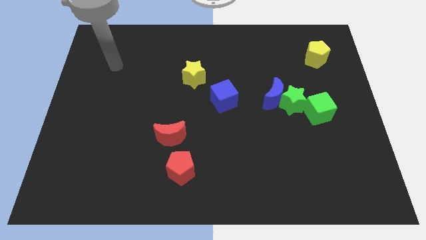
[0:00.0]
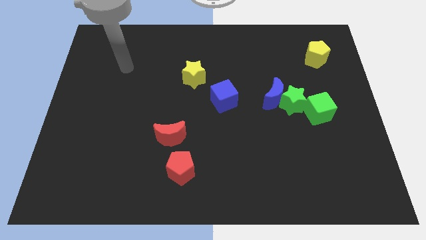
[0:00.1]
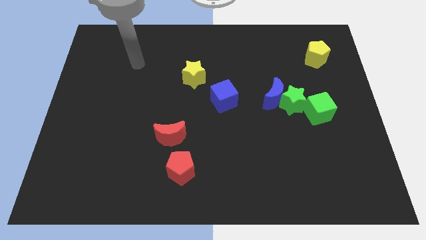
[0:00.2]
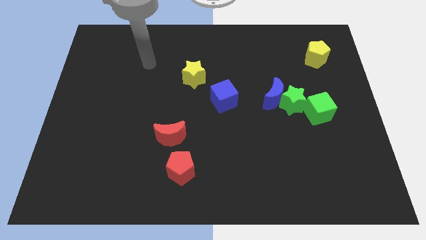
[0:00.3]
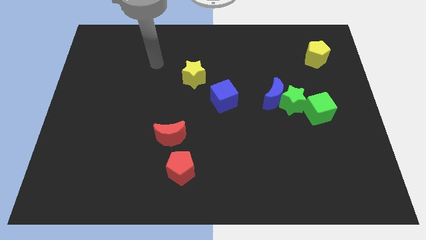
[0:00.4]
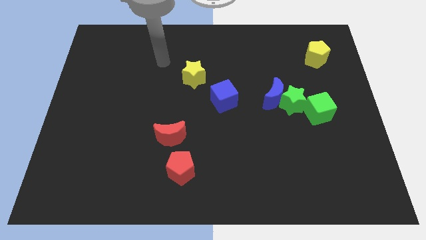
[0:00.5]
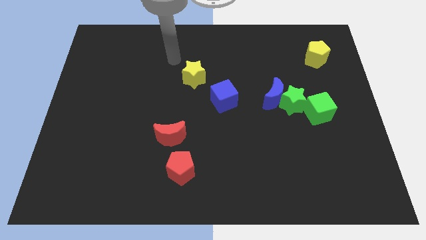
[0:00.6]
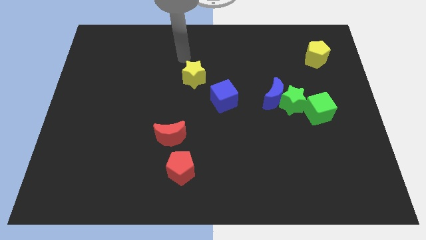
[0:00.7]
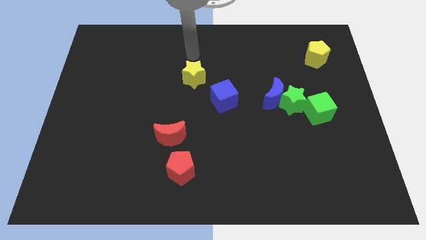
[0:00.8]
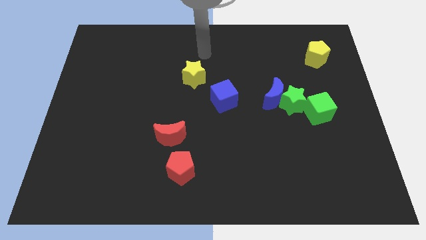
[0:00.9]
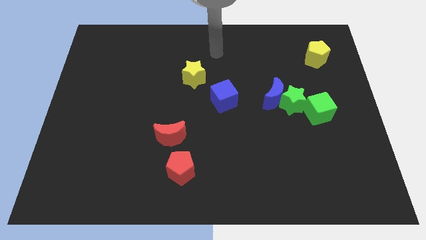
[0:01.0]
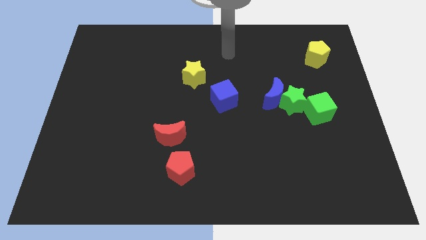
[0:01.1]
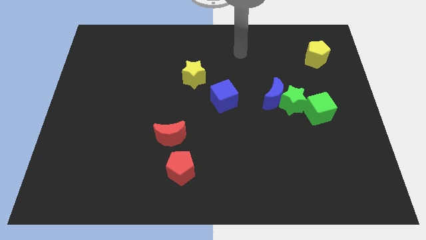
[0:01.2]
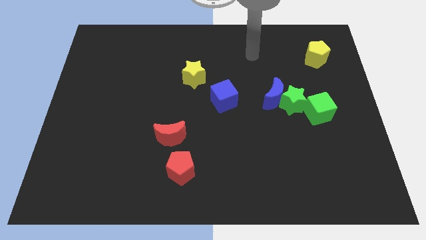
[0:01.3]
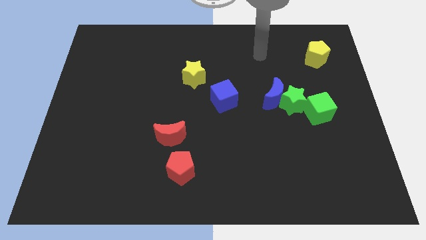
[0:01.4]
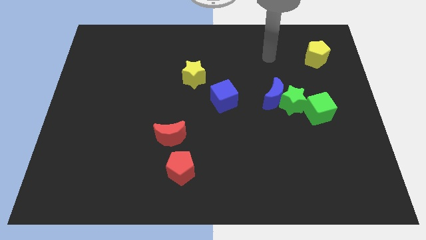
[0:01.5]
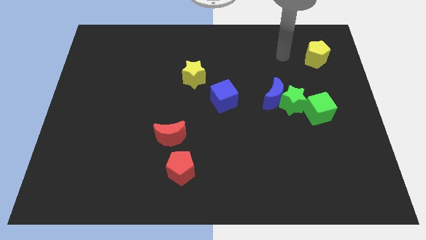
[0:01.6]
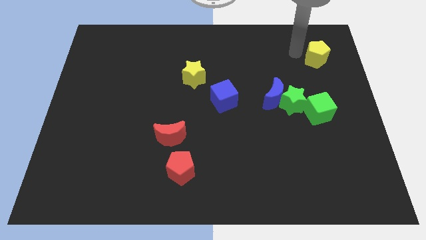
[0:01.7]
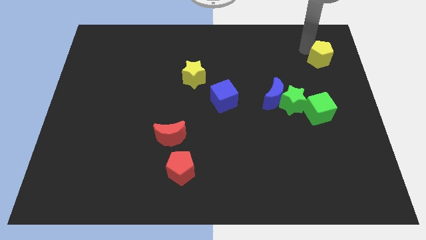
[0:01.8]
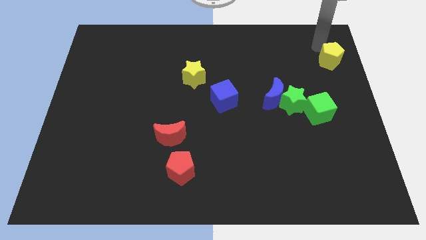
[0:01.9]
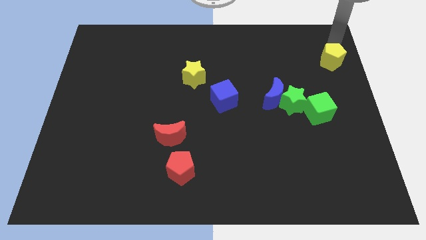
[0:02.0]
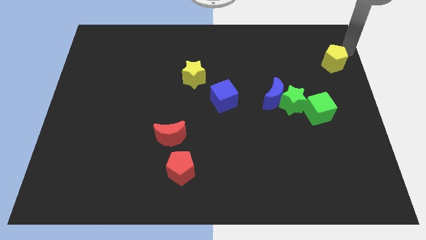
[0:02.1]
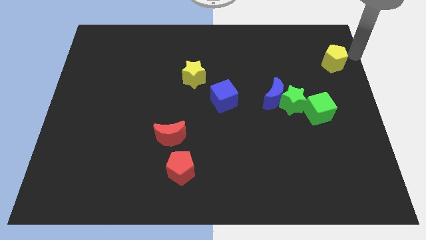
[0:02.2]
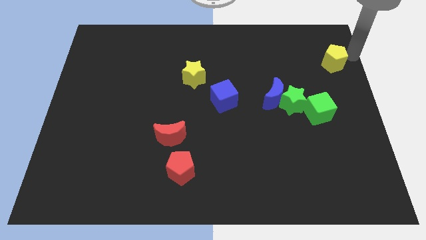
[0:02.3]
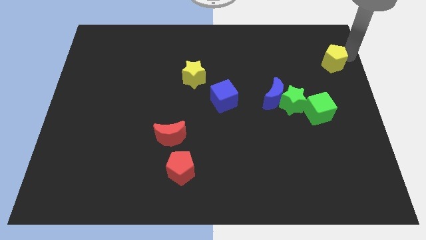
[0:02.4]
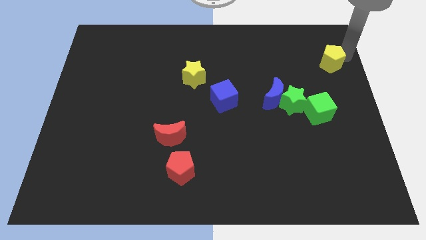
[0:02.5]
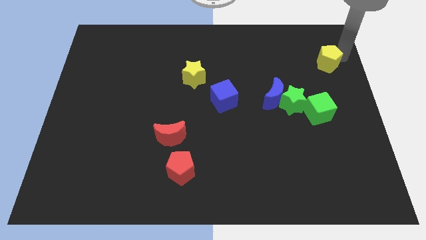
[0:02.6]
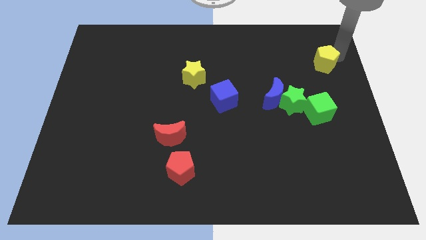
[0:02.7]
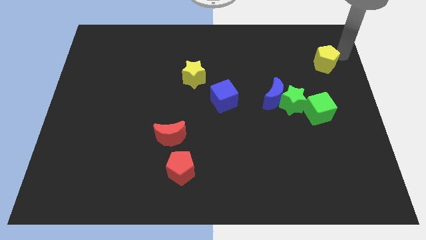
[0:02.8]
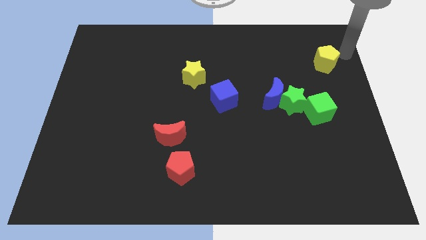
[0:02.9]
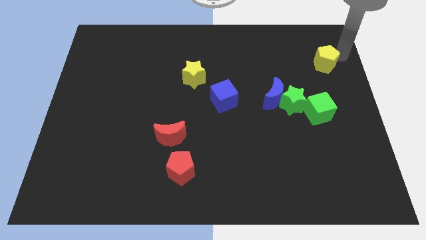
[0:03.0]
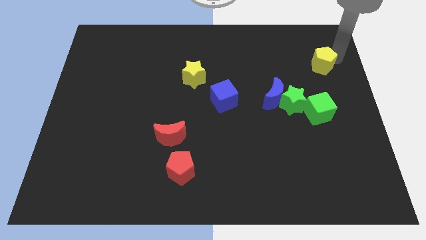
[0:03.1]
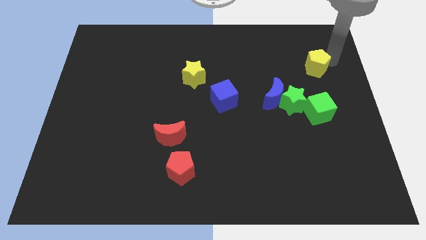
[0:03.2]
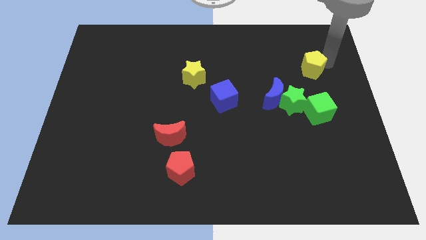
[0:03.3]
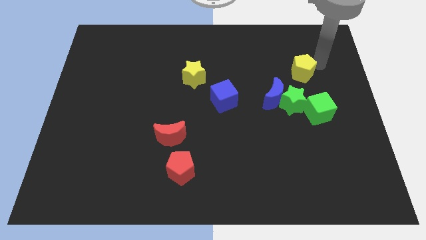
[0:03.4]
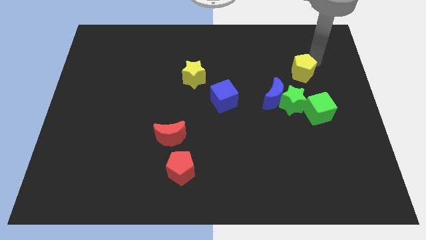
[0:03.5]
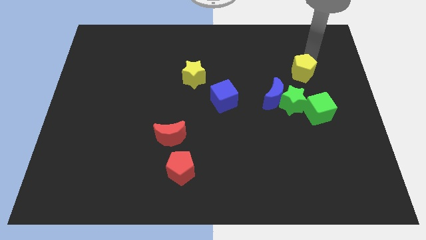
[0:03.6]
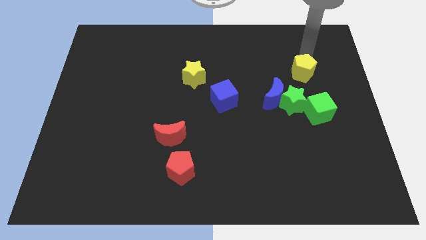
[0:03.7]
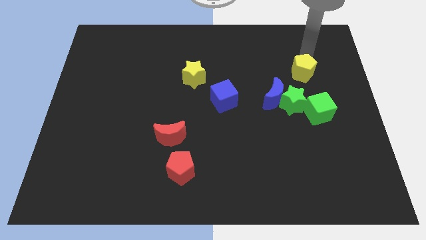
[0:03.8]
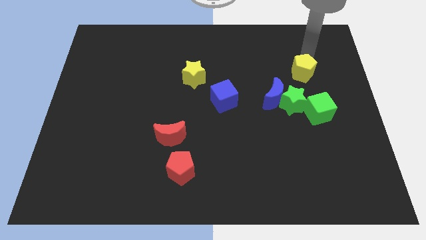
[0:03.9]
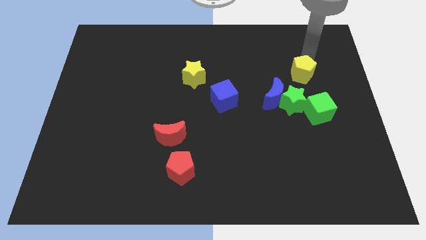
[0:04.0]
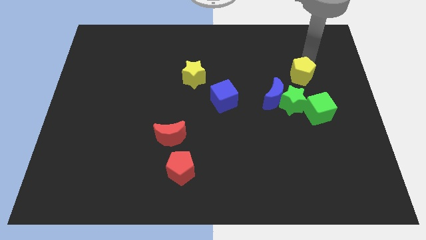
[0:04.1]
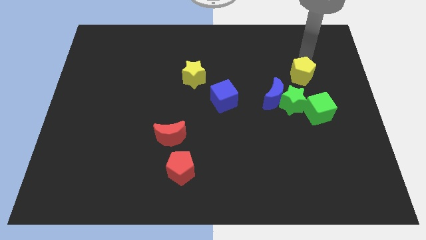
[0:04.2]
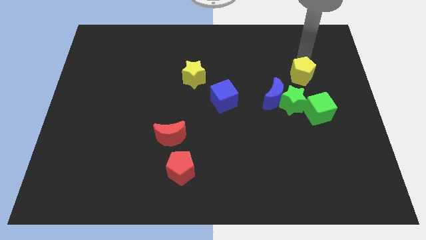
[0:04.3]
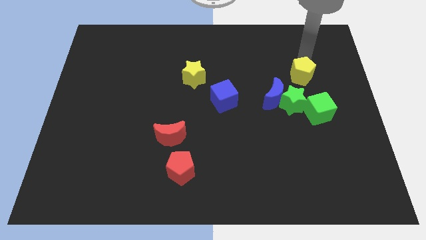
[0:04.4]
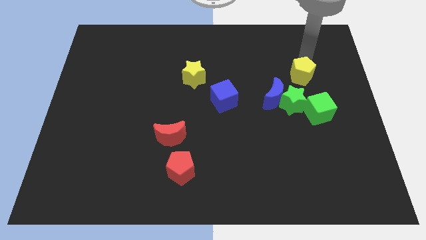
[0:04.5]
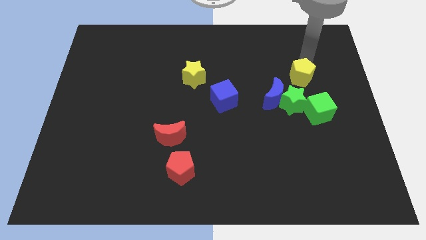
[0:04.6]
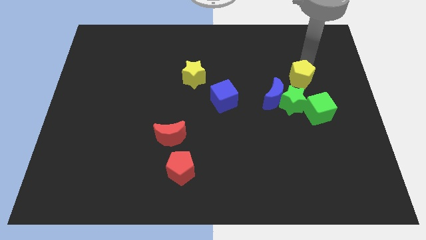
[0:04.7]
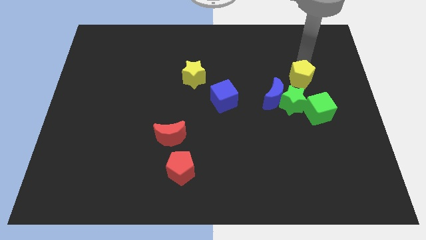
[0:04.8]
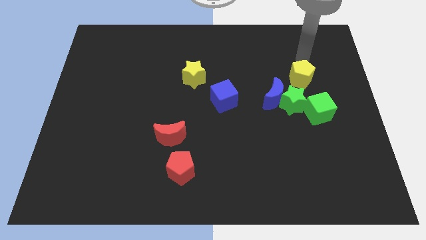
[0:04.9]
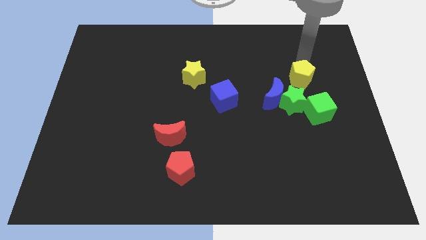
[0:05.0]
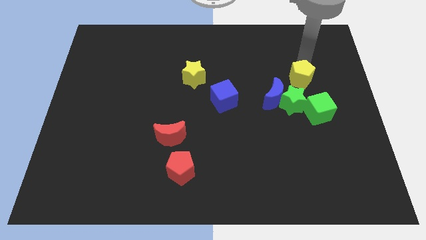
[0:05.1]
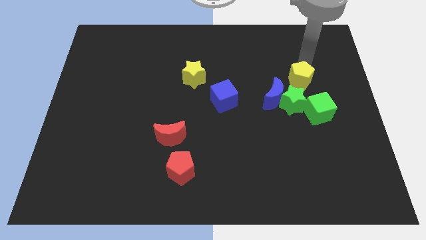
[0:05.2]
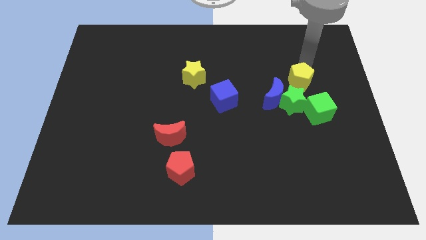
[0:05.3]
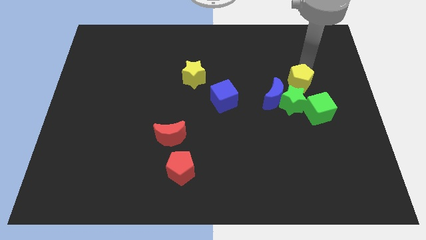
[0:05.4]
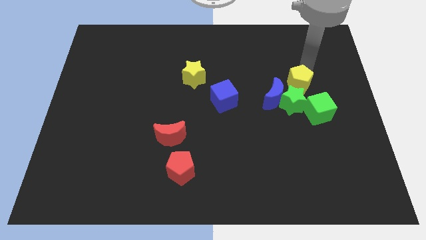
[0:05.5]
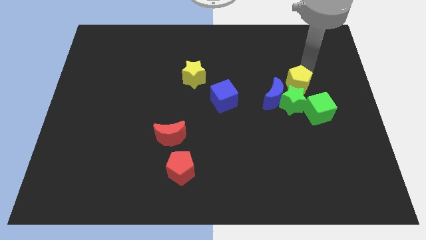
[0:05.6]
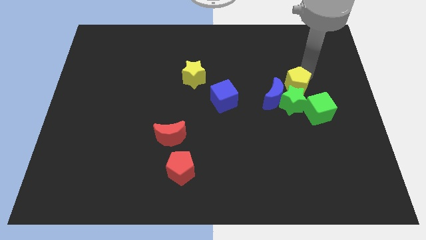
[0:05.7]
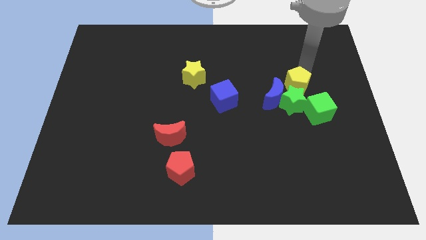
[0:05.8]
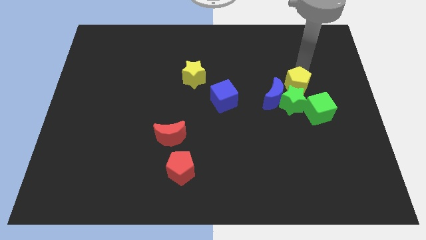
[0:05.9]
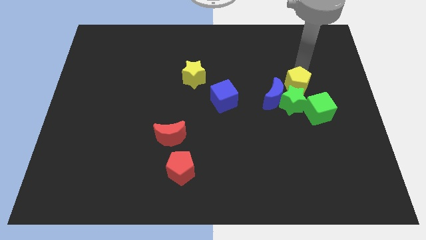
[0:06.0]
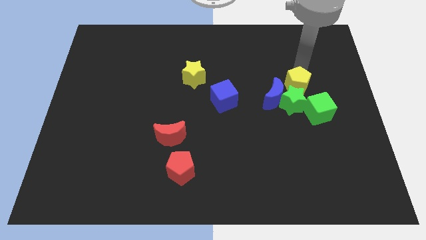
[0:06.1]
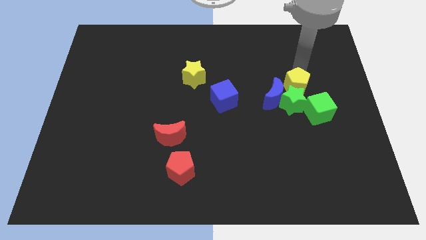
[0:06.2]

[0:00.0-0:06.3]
slide the yellow pentagon to the green star

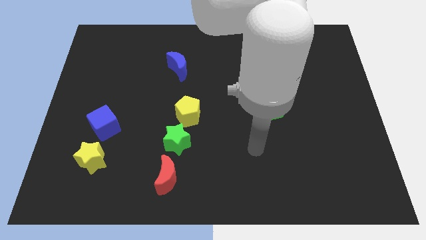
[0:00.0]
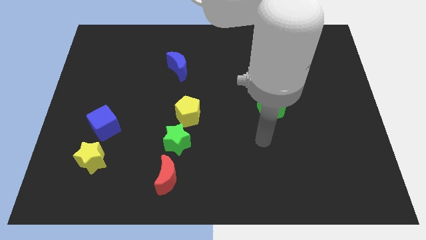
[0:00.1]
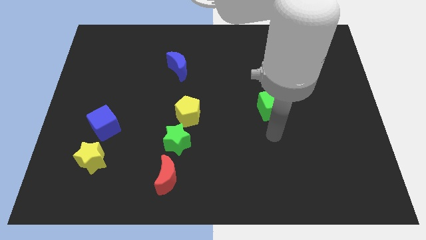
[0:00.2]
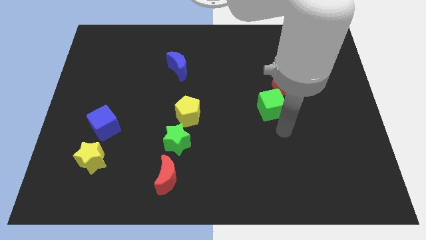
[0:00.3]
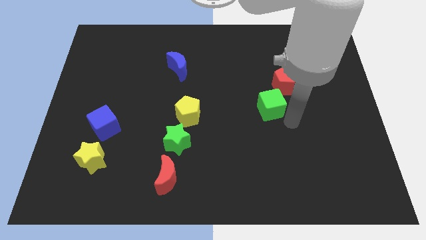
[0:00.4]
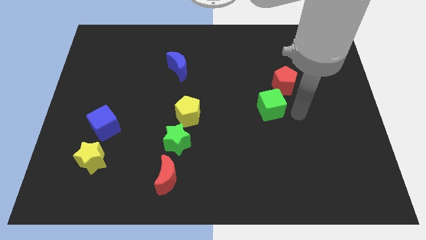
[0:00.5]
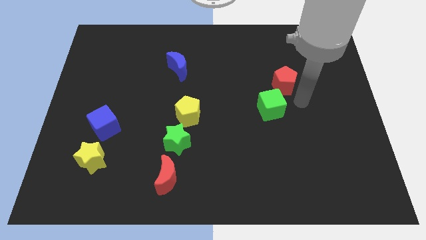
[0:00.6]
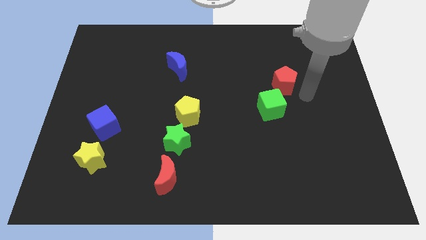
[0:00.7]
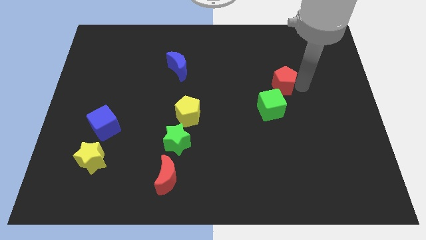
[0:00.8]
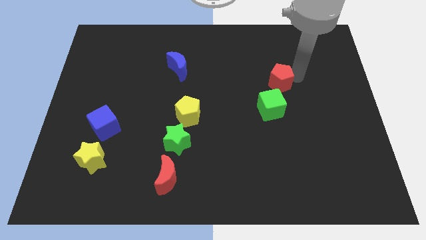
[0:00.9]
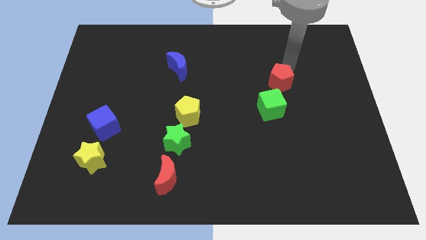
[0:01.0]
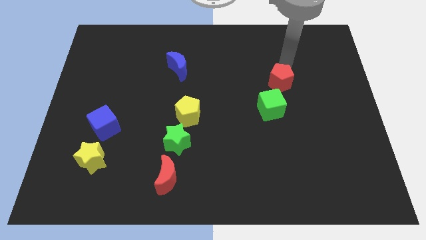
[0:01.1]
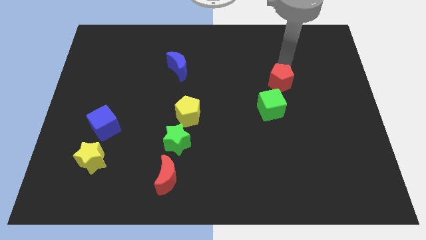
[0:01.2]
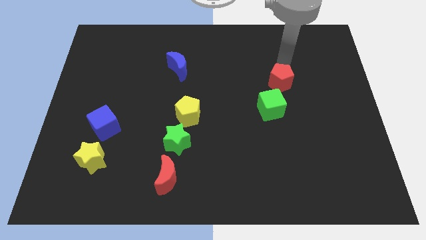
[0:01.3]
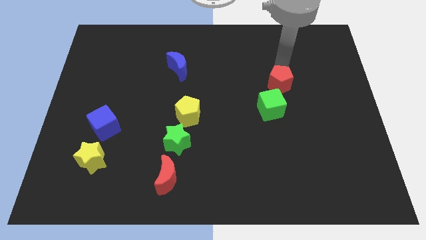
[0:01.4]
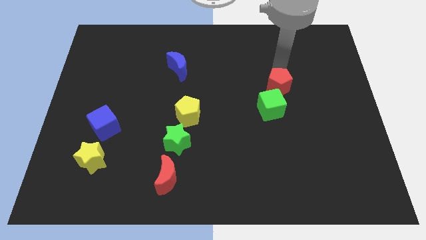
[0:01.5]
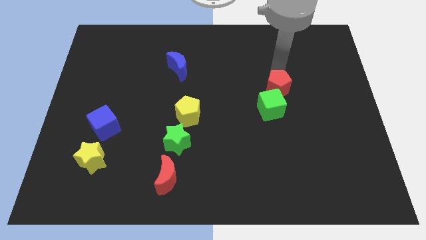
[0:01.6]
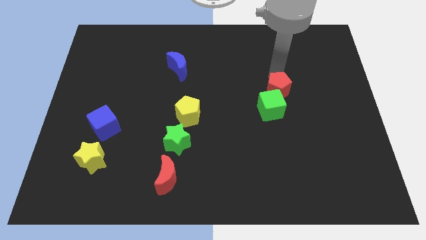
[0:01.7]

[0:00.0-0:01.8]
push the red pentagon towards the green cube

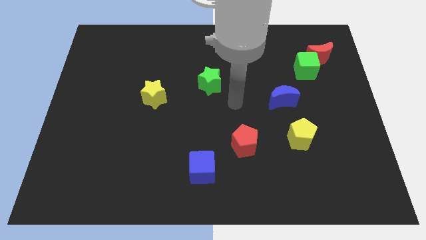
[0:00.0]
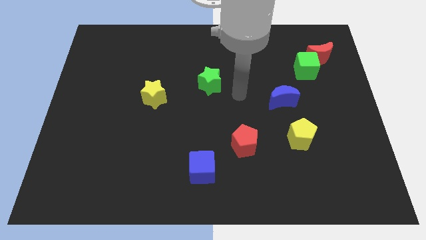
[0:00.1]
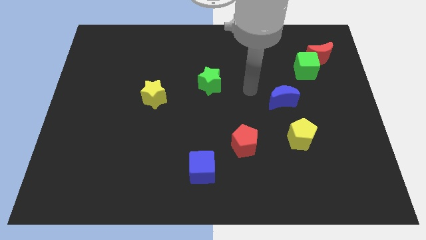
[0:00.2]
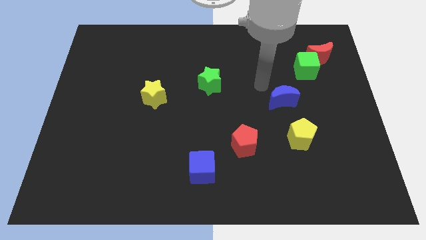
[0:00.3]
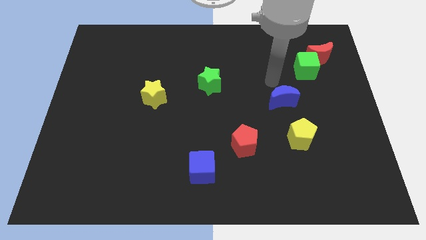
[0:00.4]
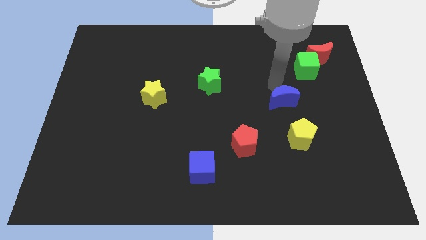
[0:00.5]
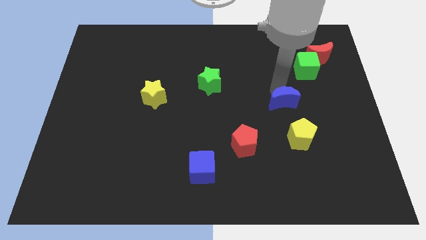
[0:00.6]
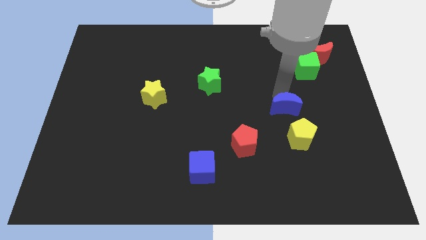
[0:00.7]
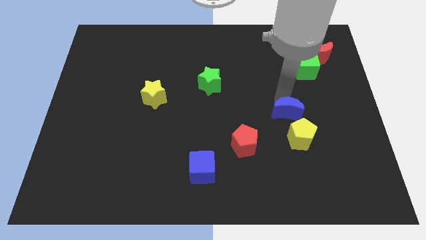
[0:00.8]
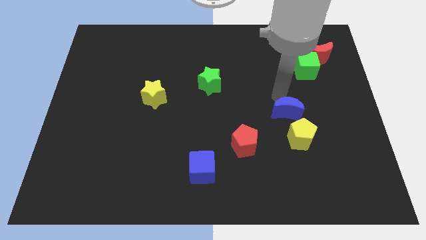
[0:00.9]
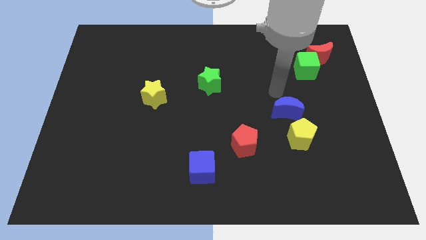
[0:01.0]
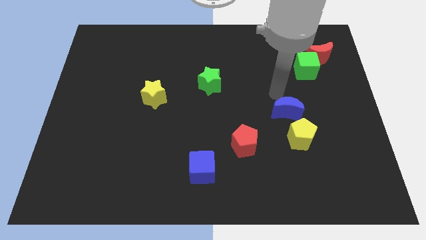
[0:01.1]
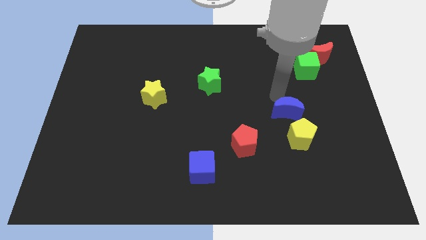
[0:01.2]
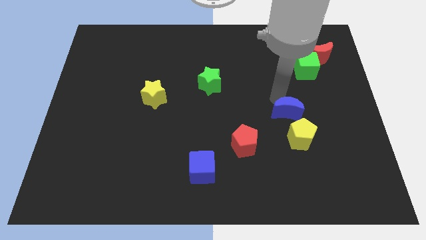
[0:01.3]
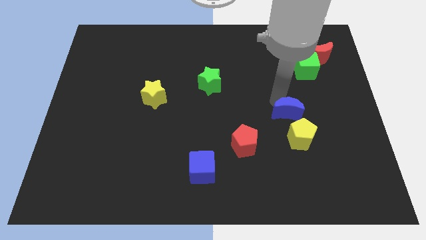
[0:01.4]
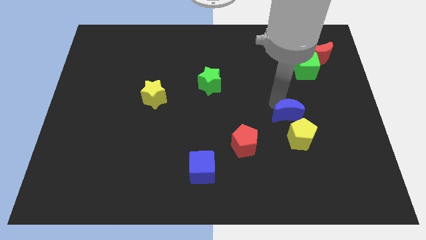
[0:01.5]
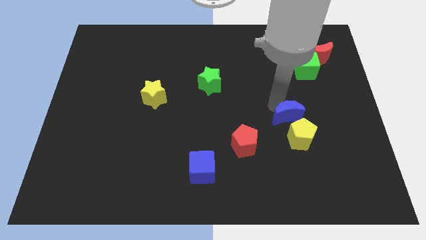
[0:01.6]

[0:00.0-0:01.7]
push the blue moon close to the yellow pentagon
